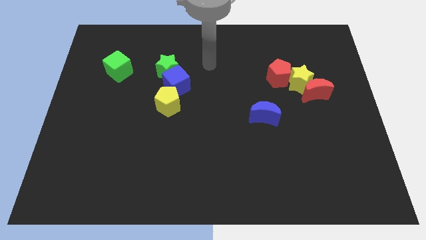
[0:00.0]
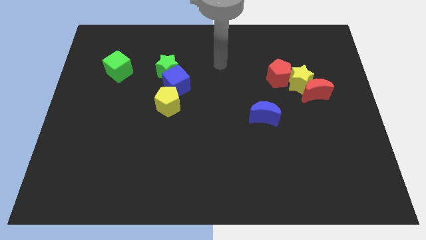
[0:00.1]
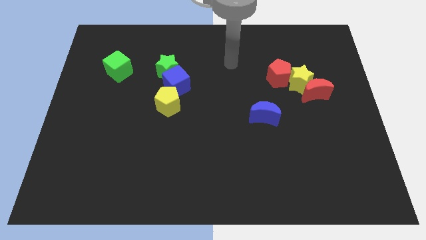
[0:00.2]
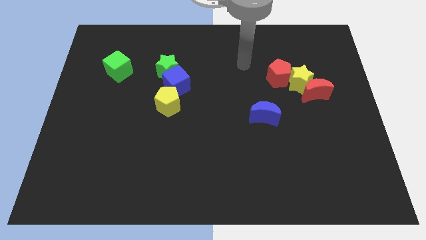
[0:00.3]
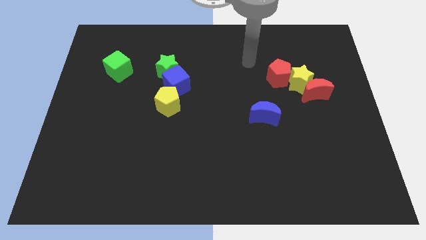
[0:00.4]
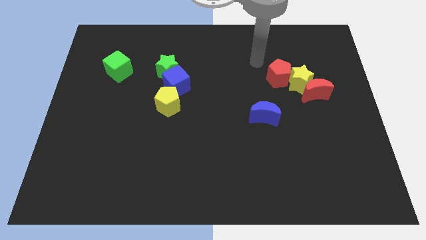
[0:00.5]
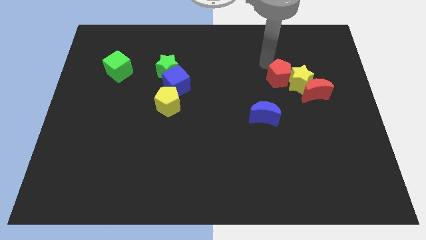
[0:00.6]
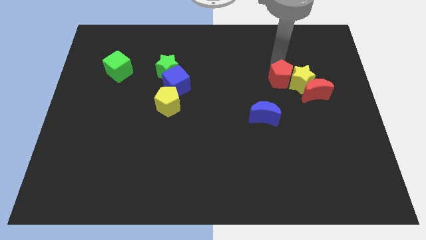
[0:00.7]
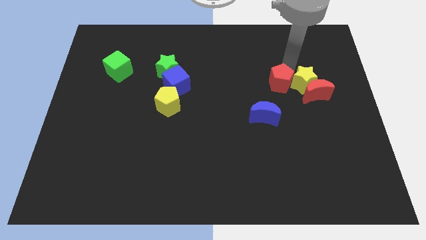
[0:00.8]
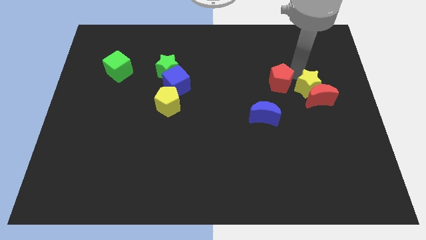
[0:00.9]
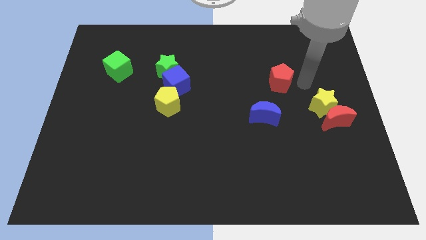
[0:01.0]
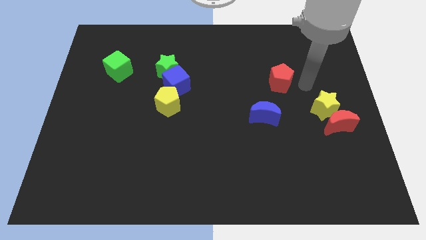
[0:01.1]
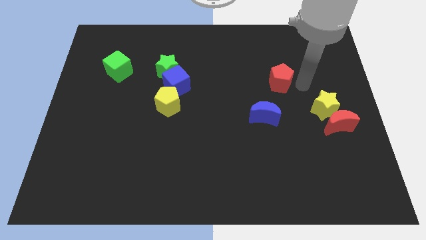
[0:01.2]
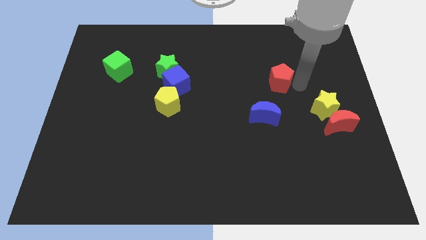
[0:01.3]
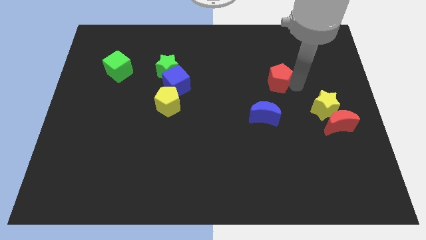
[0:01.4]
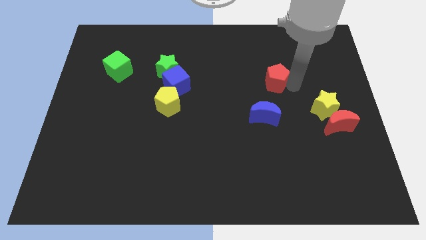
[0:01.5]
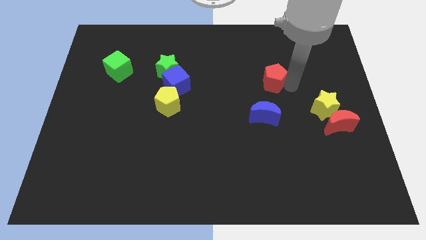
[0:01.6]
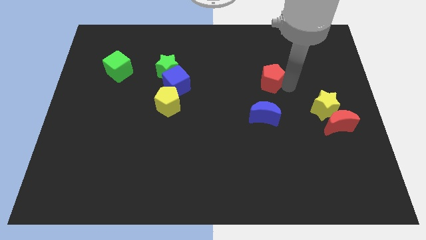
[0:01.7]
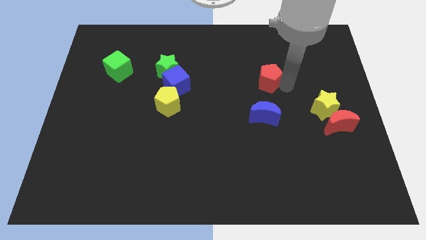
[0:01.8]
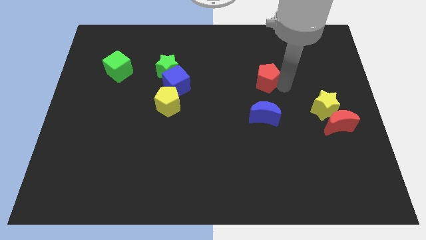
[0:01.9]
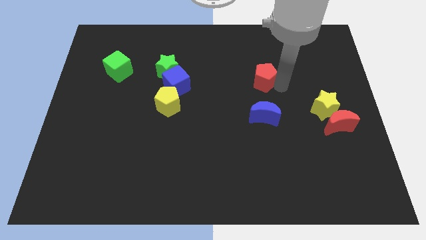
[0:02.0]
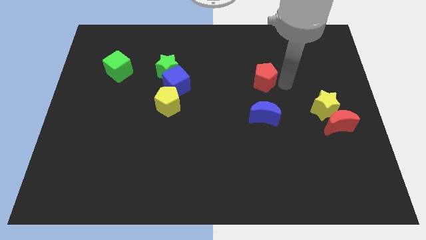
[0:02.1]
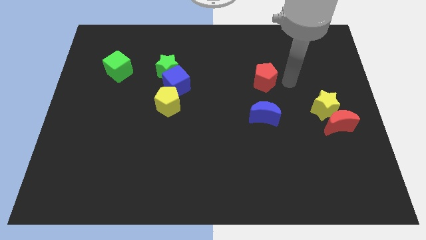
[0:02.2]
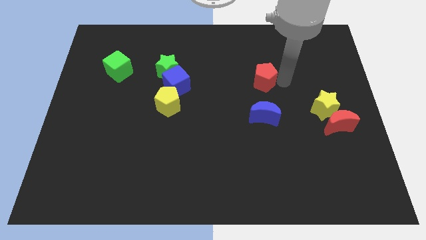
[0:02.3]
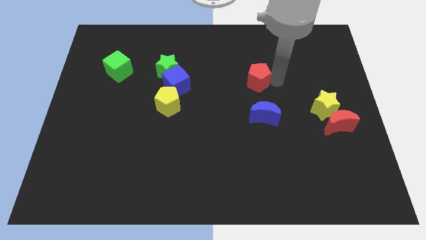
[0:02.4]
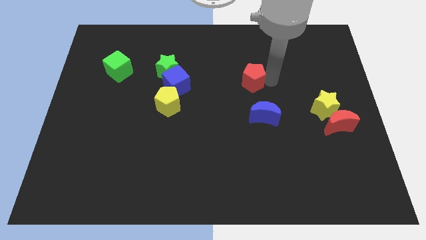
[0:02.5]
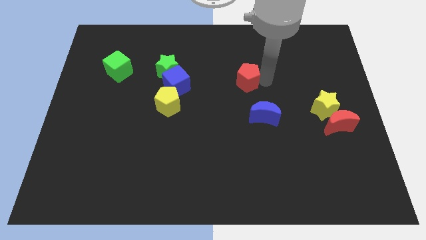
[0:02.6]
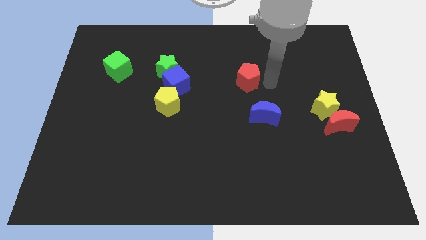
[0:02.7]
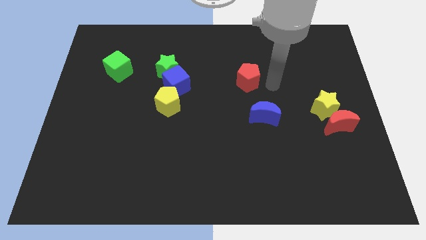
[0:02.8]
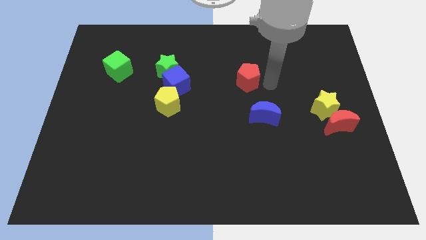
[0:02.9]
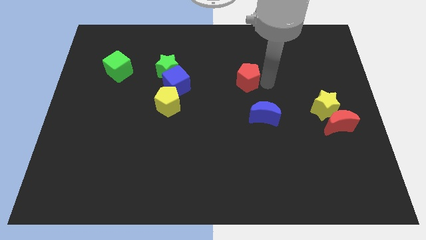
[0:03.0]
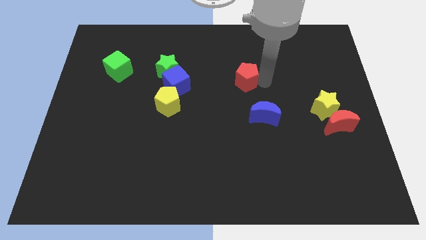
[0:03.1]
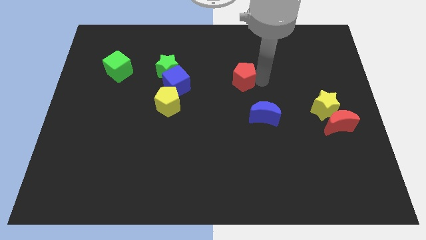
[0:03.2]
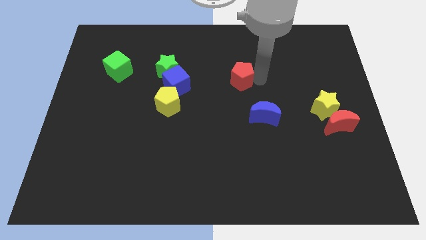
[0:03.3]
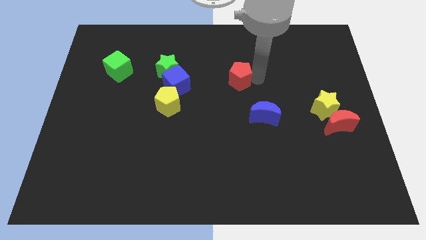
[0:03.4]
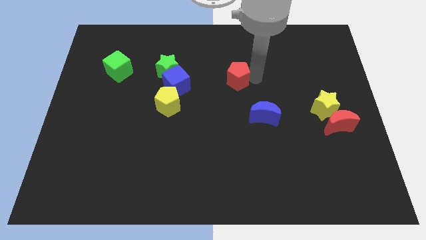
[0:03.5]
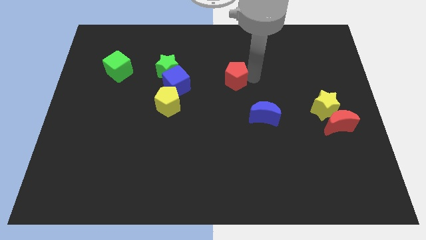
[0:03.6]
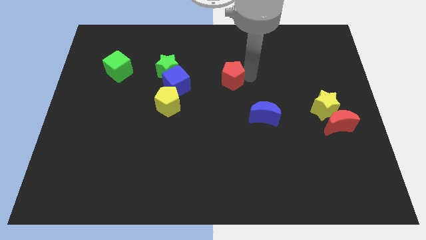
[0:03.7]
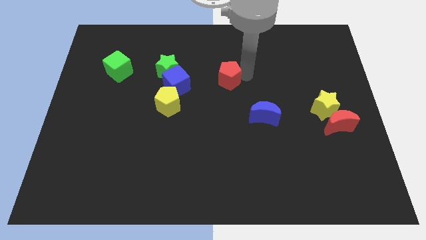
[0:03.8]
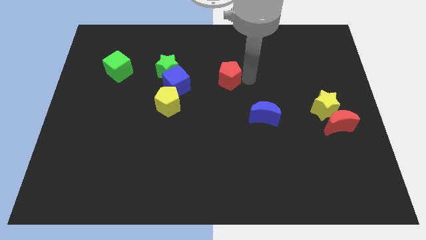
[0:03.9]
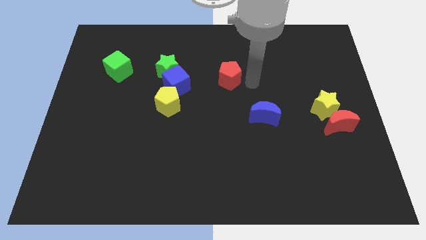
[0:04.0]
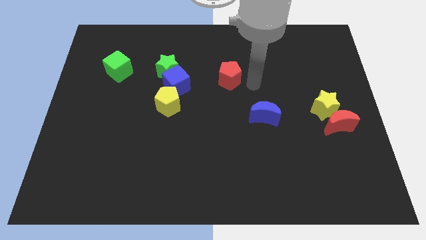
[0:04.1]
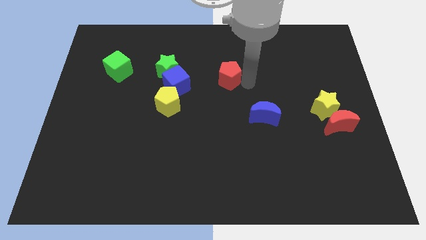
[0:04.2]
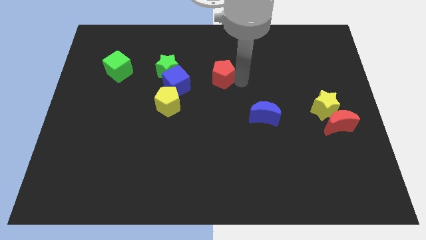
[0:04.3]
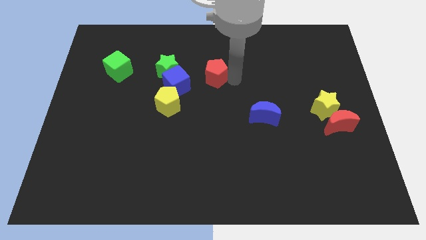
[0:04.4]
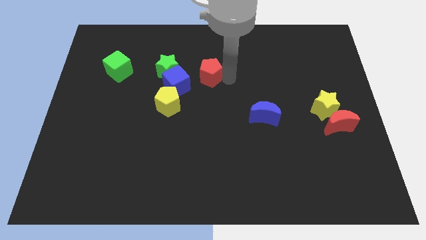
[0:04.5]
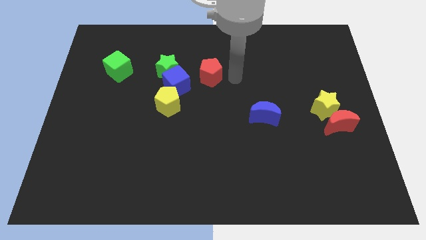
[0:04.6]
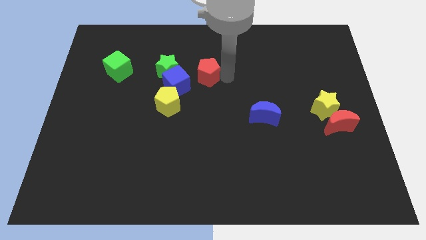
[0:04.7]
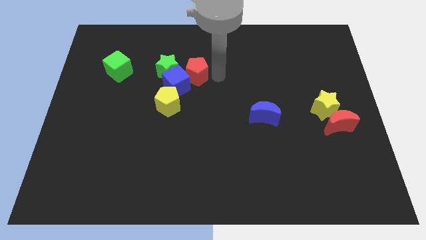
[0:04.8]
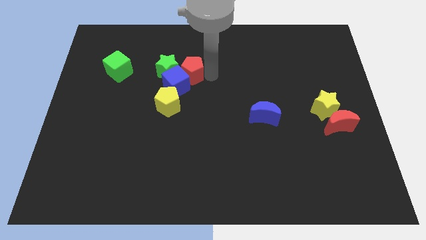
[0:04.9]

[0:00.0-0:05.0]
slide the red pentagon close to the green star

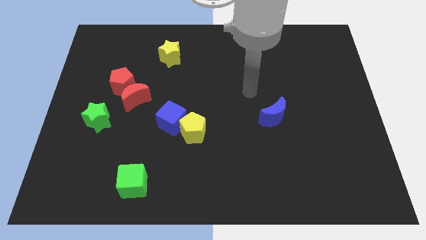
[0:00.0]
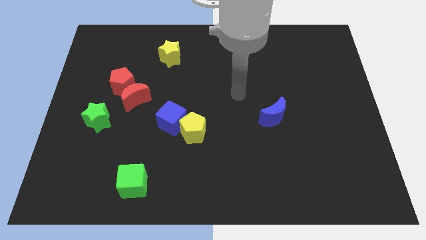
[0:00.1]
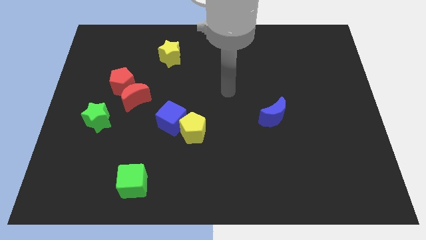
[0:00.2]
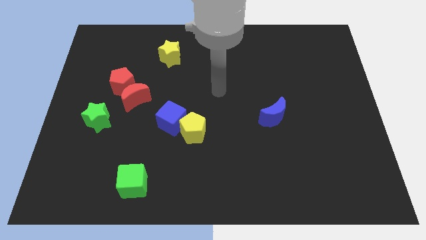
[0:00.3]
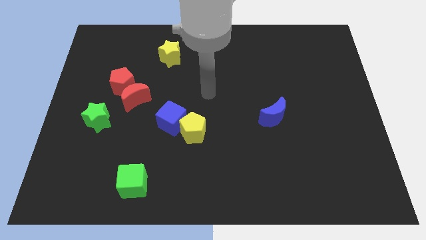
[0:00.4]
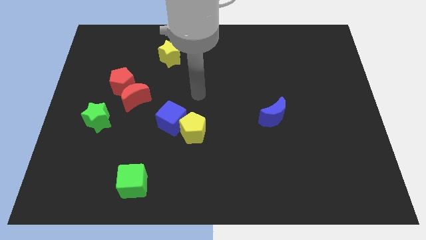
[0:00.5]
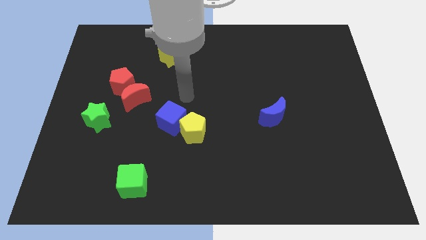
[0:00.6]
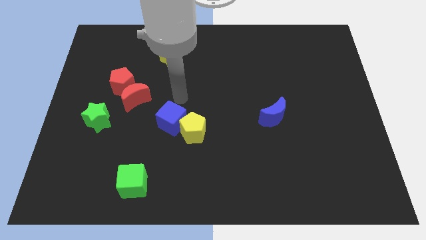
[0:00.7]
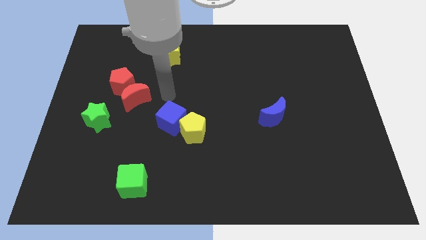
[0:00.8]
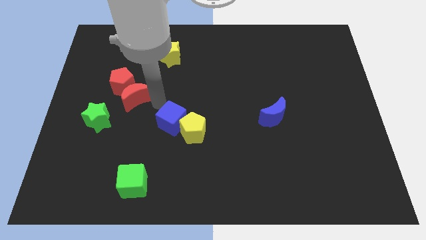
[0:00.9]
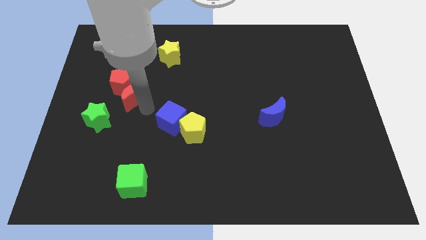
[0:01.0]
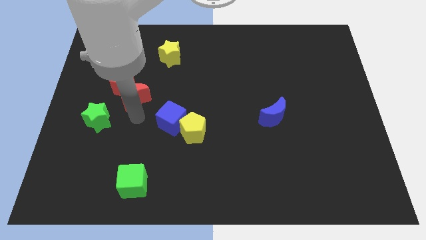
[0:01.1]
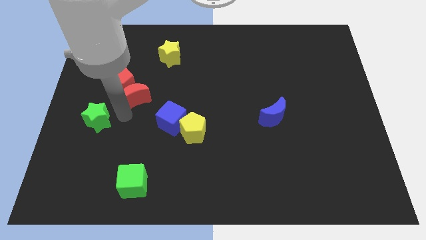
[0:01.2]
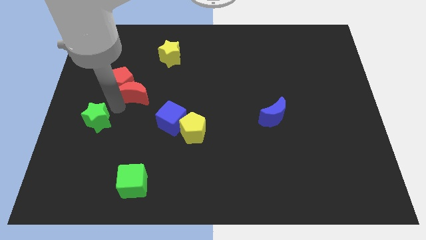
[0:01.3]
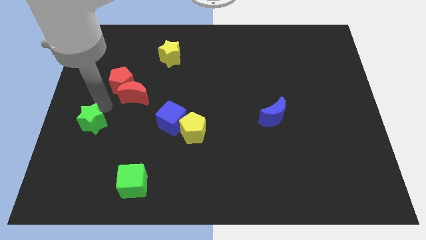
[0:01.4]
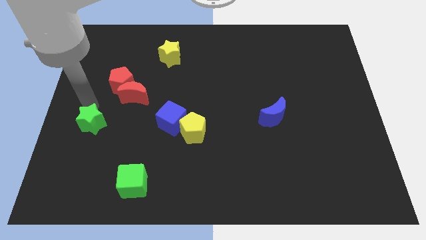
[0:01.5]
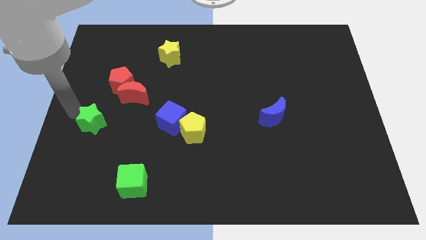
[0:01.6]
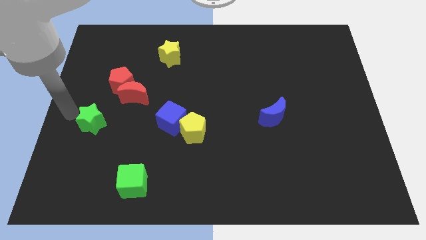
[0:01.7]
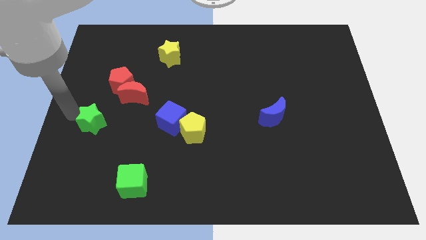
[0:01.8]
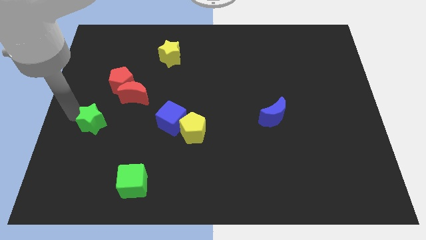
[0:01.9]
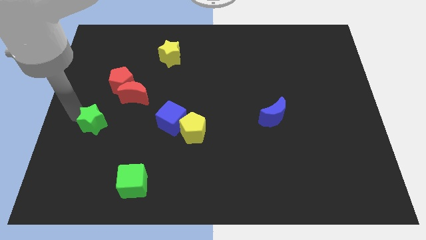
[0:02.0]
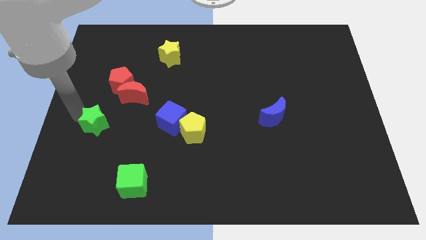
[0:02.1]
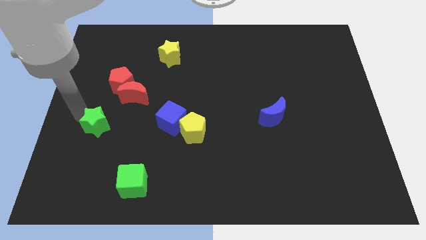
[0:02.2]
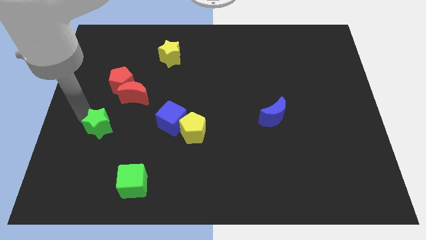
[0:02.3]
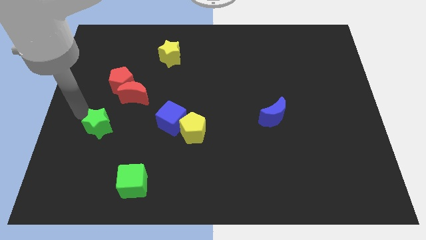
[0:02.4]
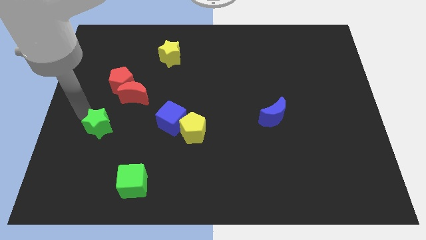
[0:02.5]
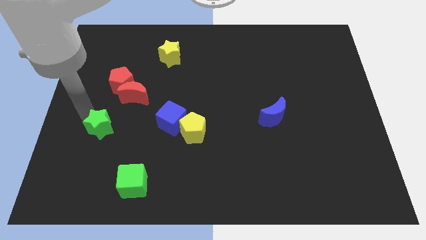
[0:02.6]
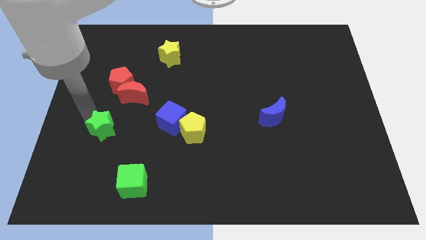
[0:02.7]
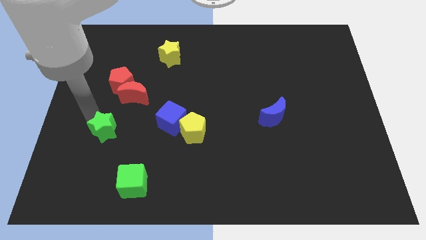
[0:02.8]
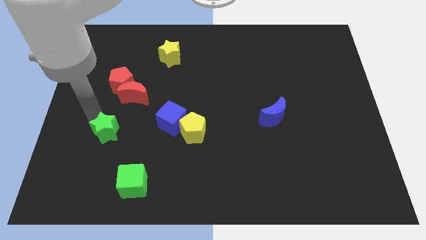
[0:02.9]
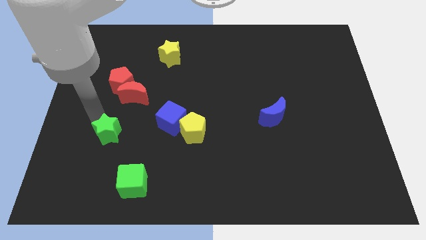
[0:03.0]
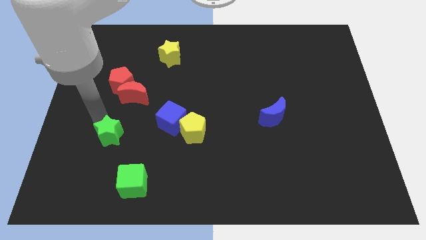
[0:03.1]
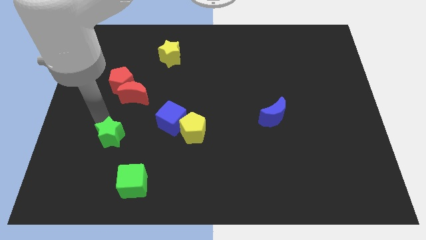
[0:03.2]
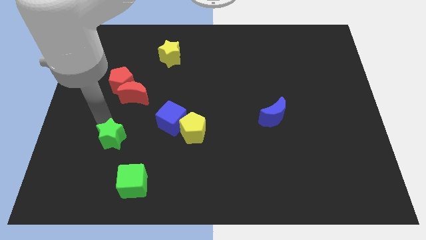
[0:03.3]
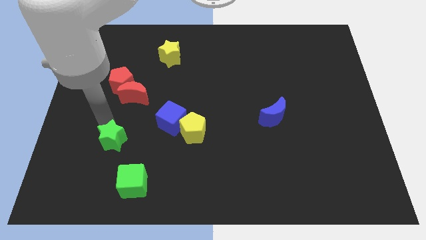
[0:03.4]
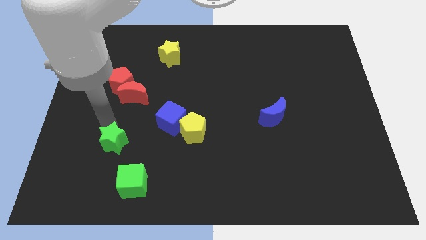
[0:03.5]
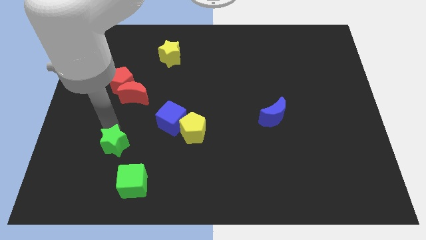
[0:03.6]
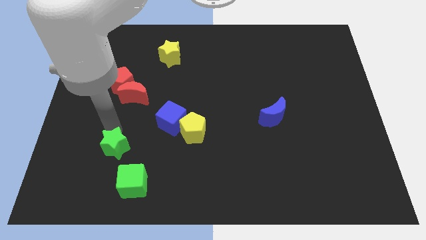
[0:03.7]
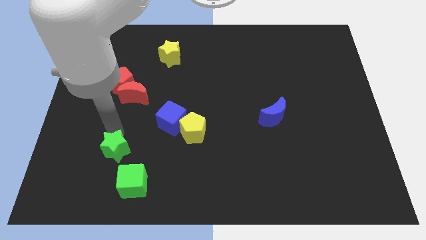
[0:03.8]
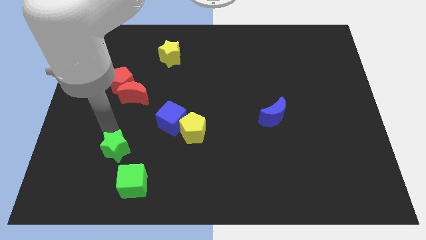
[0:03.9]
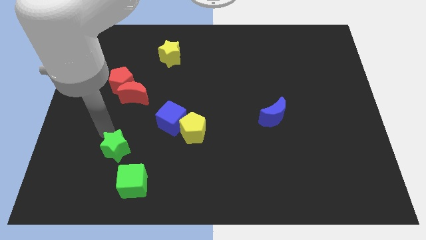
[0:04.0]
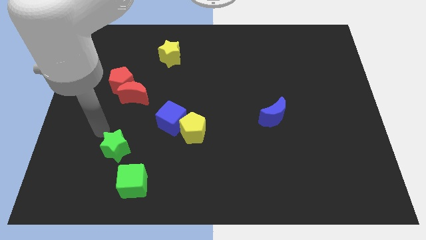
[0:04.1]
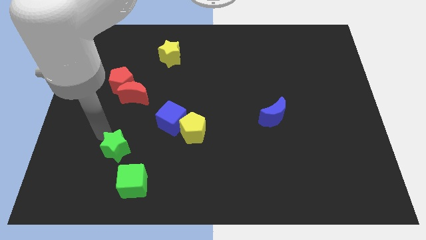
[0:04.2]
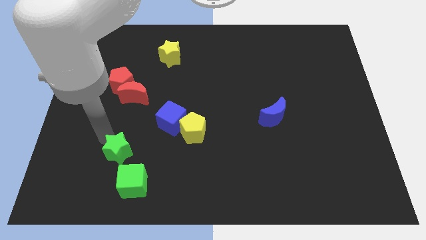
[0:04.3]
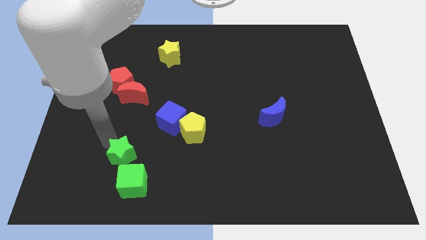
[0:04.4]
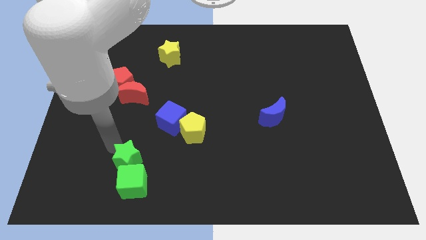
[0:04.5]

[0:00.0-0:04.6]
put the green star towards the green cube
